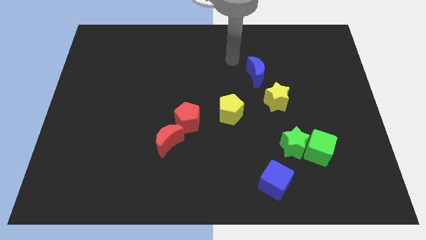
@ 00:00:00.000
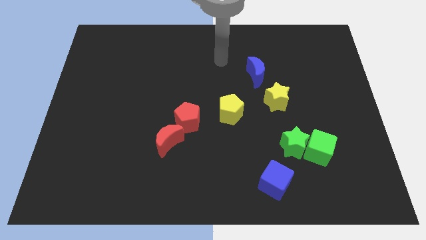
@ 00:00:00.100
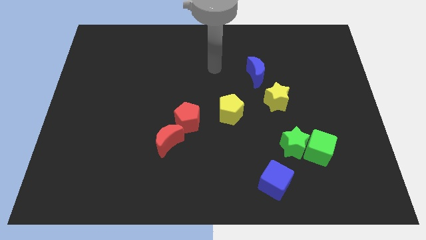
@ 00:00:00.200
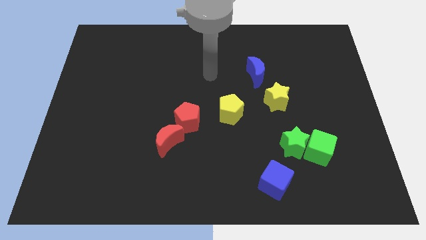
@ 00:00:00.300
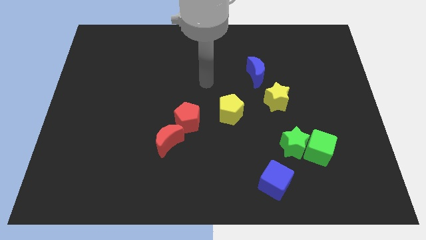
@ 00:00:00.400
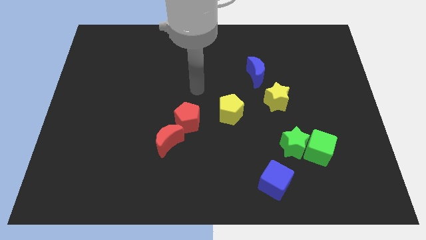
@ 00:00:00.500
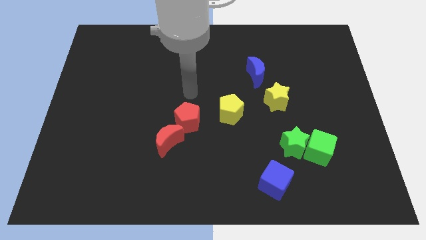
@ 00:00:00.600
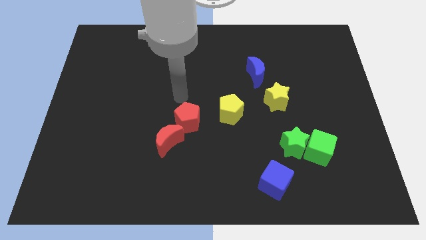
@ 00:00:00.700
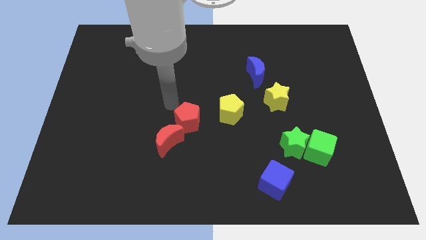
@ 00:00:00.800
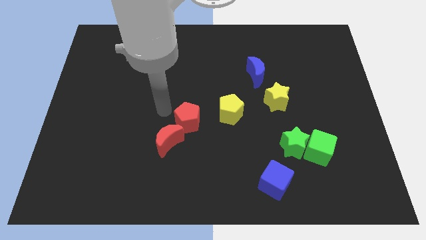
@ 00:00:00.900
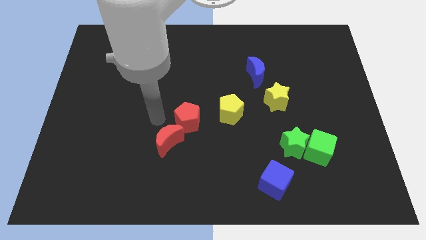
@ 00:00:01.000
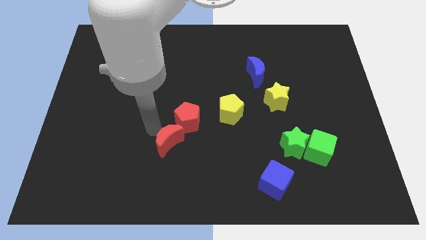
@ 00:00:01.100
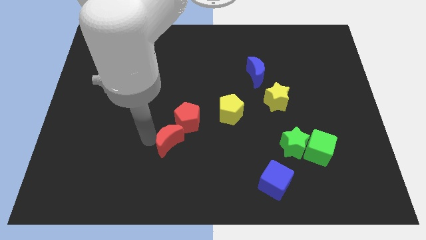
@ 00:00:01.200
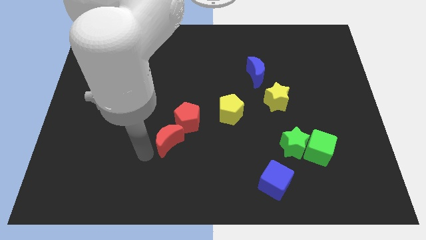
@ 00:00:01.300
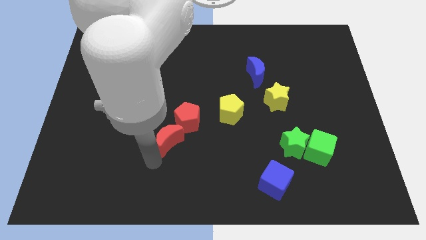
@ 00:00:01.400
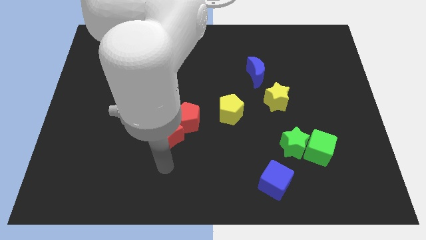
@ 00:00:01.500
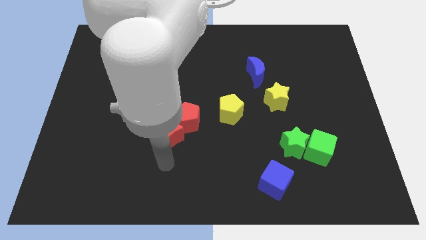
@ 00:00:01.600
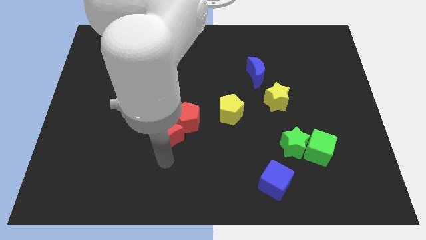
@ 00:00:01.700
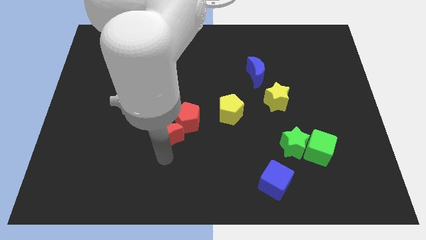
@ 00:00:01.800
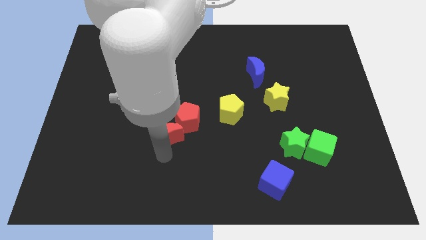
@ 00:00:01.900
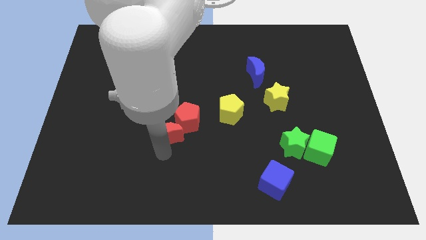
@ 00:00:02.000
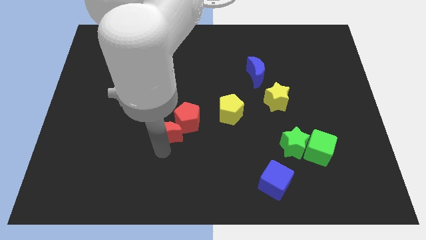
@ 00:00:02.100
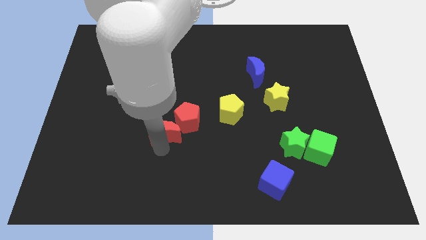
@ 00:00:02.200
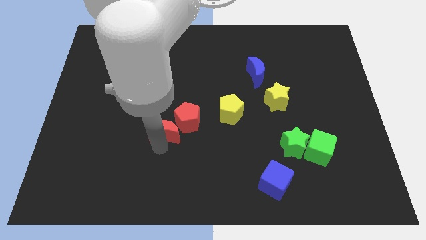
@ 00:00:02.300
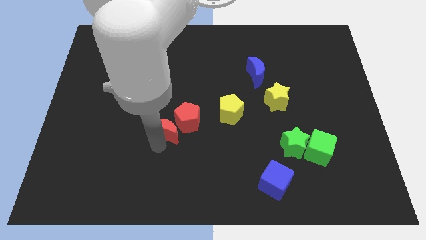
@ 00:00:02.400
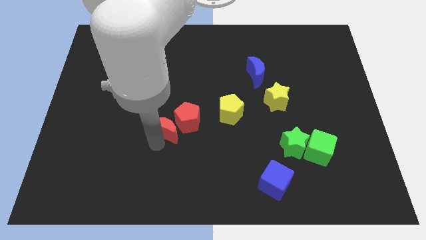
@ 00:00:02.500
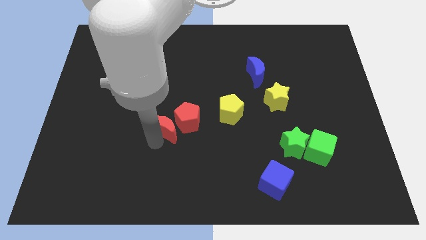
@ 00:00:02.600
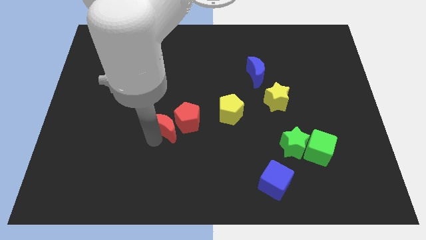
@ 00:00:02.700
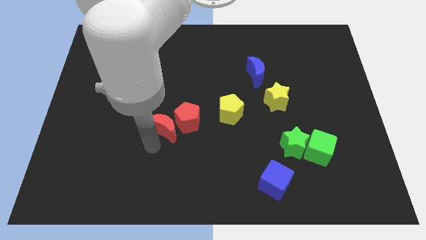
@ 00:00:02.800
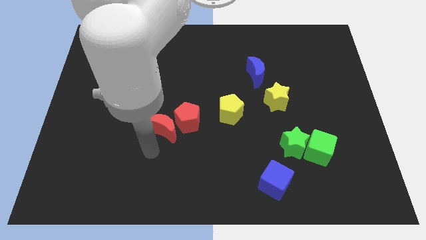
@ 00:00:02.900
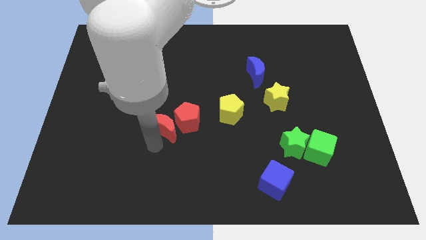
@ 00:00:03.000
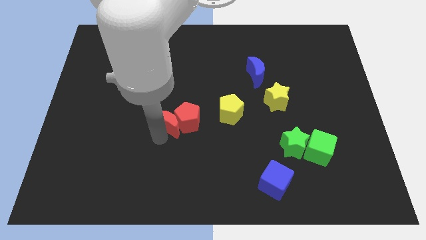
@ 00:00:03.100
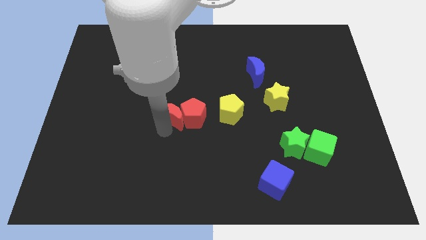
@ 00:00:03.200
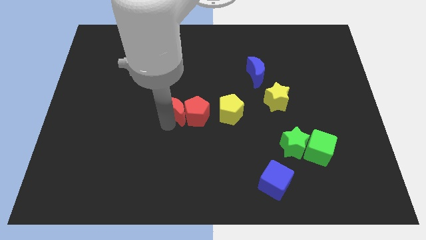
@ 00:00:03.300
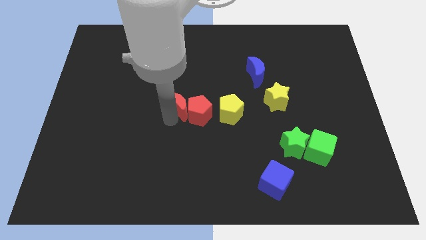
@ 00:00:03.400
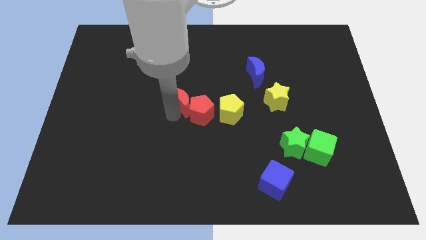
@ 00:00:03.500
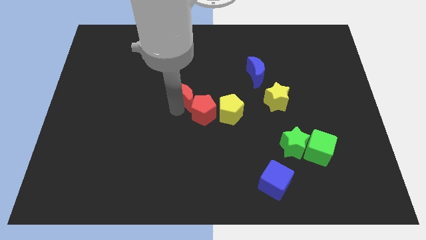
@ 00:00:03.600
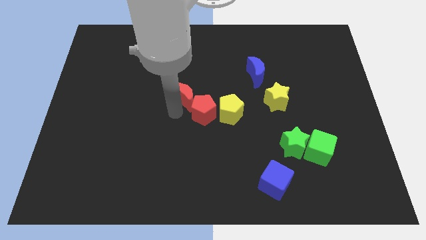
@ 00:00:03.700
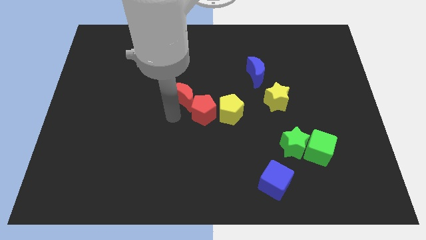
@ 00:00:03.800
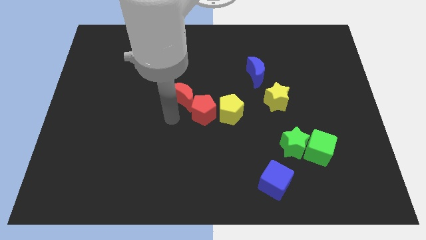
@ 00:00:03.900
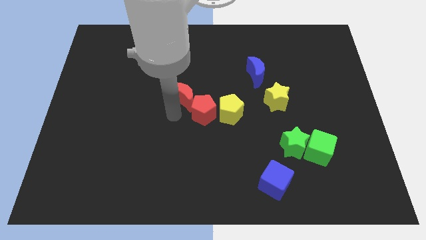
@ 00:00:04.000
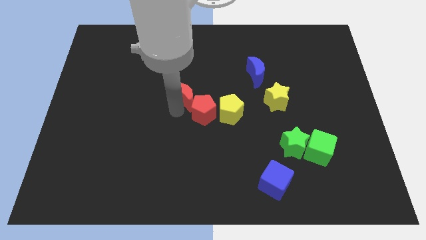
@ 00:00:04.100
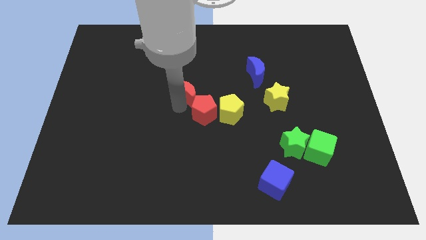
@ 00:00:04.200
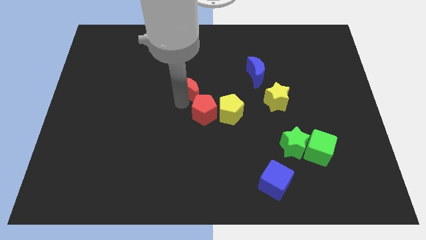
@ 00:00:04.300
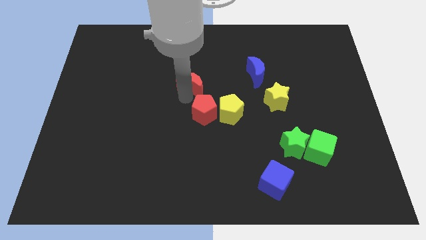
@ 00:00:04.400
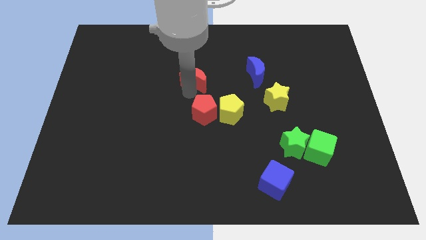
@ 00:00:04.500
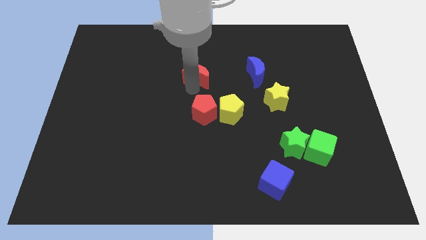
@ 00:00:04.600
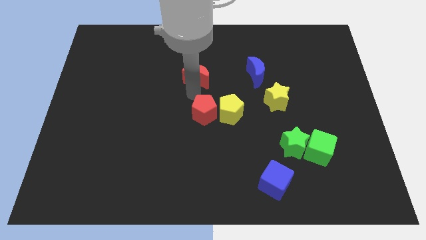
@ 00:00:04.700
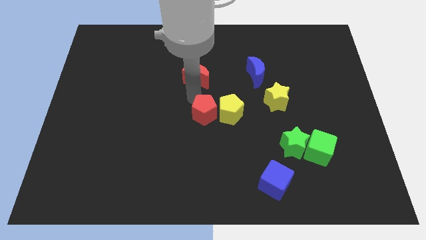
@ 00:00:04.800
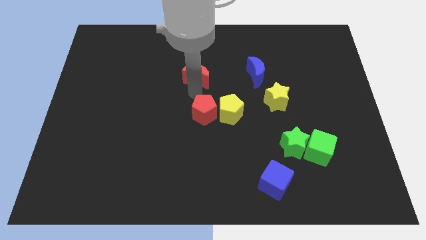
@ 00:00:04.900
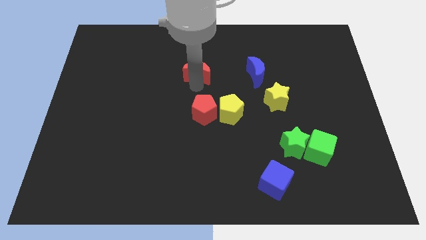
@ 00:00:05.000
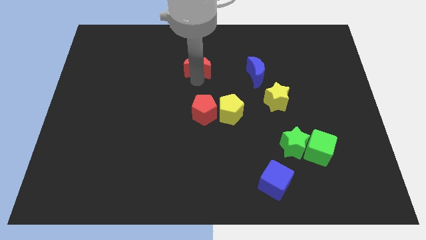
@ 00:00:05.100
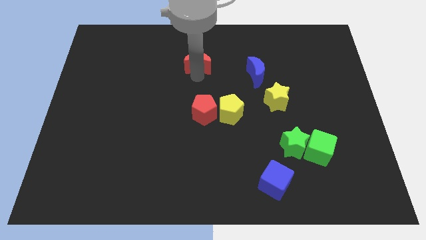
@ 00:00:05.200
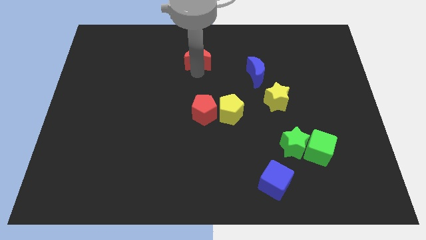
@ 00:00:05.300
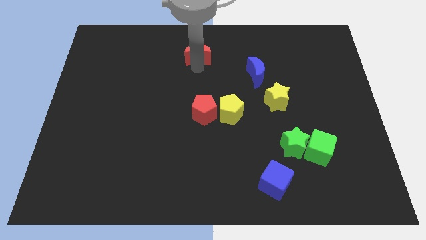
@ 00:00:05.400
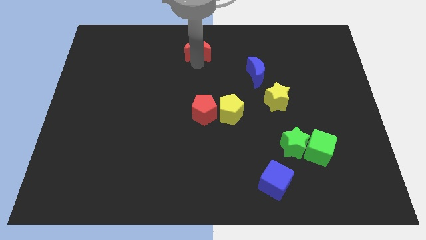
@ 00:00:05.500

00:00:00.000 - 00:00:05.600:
move the red moon to the top

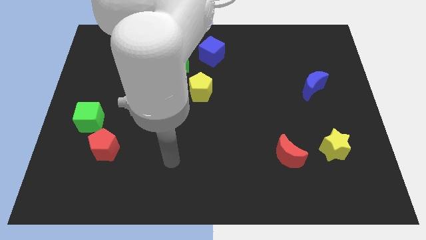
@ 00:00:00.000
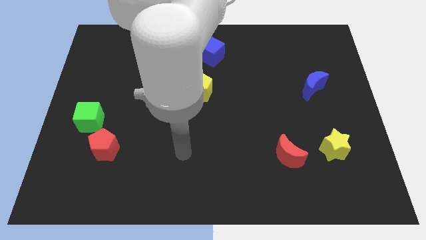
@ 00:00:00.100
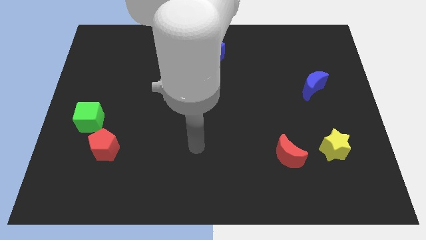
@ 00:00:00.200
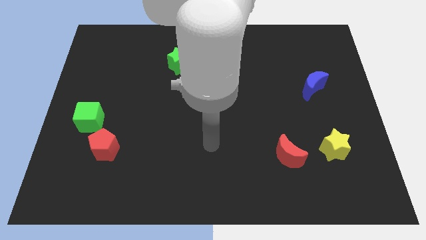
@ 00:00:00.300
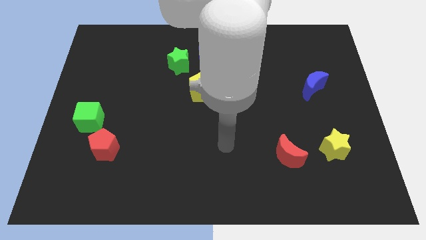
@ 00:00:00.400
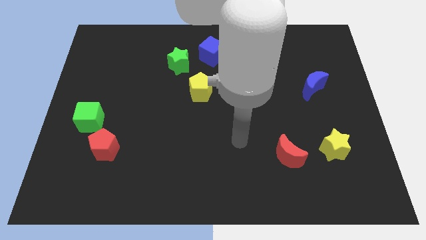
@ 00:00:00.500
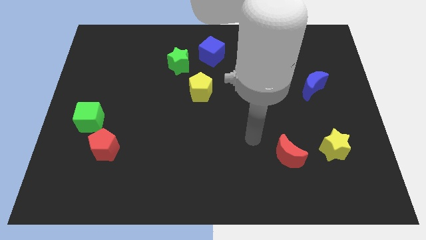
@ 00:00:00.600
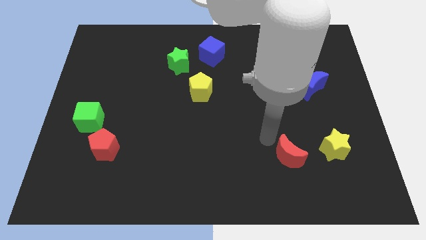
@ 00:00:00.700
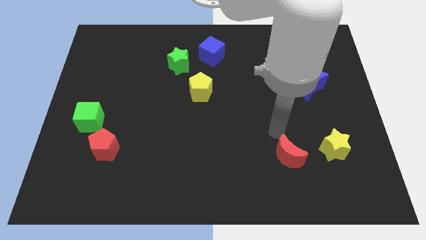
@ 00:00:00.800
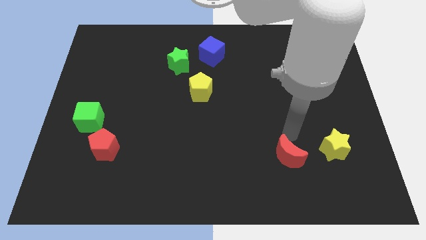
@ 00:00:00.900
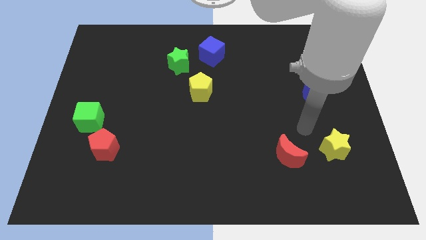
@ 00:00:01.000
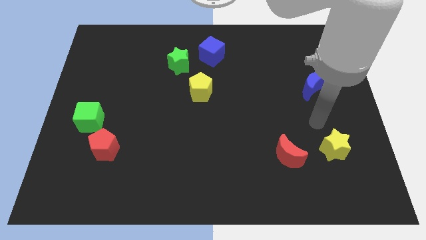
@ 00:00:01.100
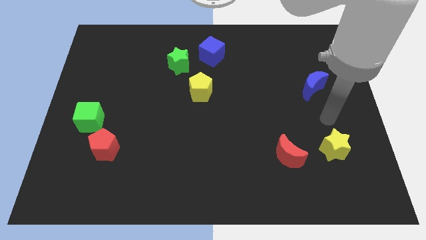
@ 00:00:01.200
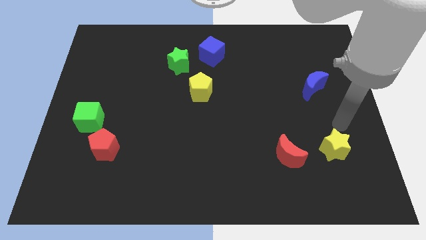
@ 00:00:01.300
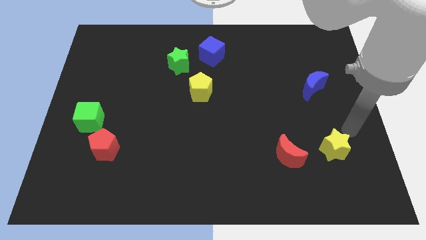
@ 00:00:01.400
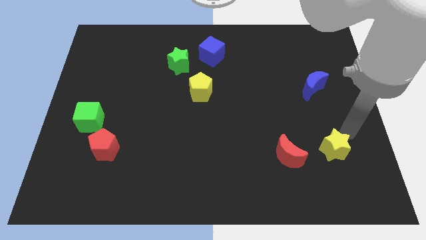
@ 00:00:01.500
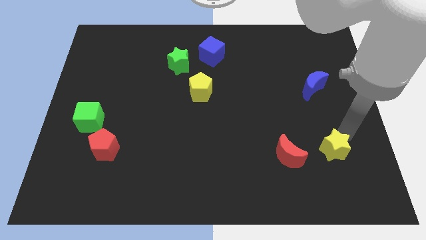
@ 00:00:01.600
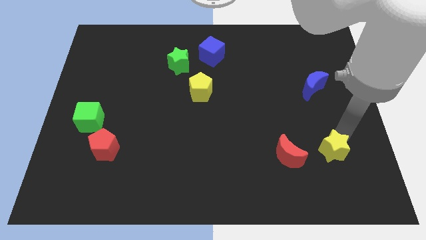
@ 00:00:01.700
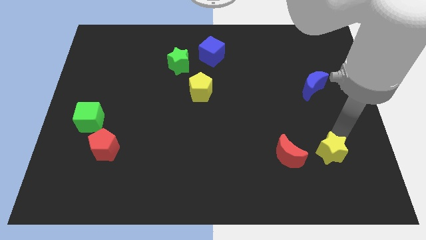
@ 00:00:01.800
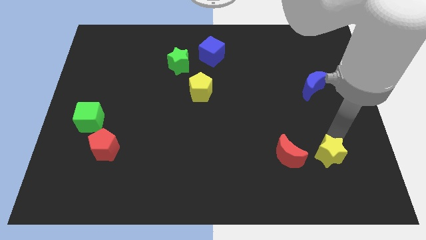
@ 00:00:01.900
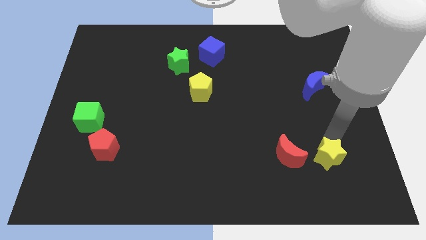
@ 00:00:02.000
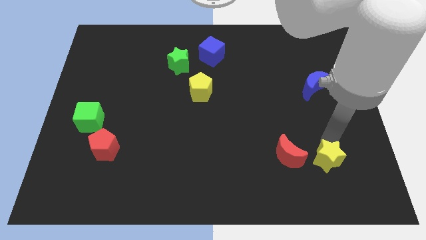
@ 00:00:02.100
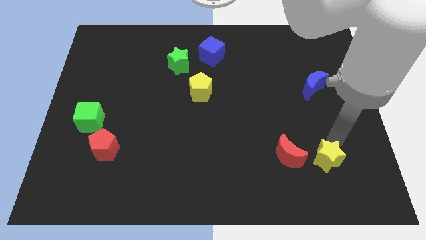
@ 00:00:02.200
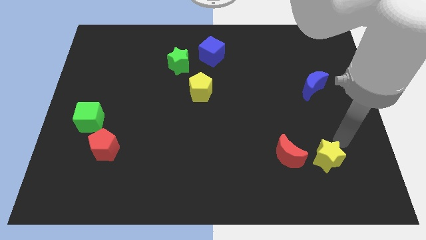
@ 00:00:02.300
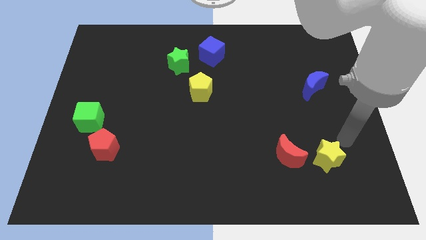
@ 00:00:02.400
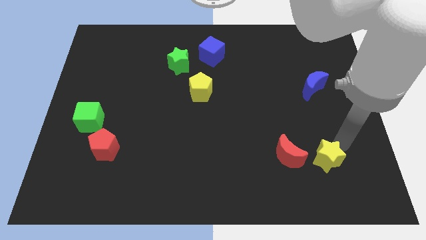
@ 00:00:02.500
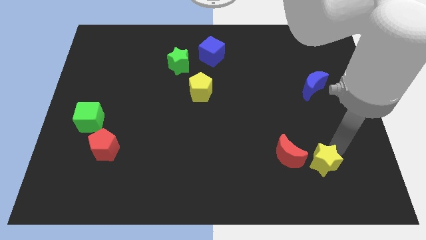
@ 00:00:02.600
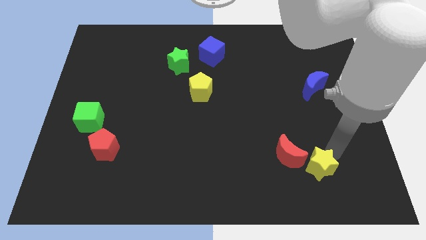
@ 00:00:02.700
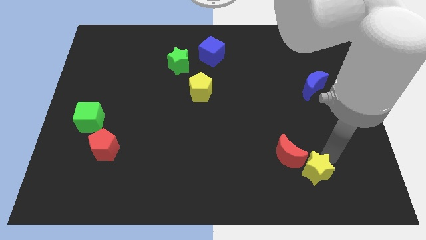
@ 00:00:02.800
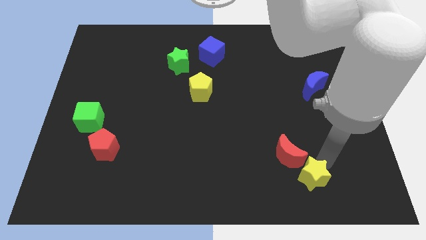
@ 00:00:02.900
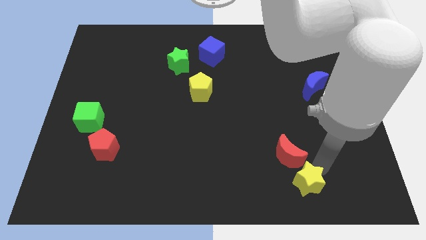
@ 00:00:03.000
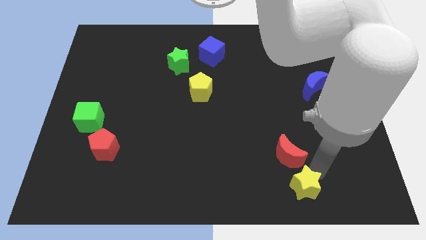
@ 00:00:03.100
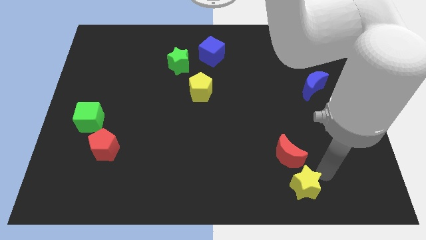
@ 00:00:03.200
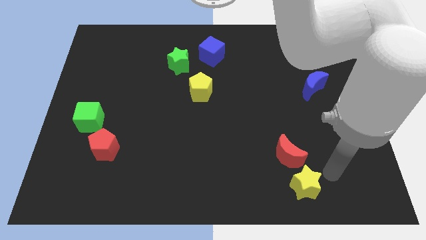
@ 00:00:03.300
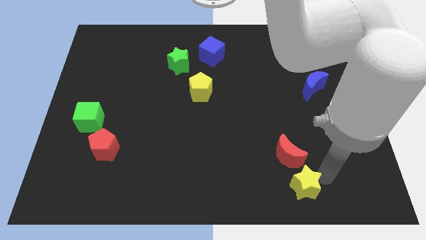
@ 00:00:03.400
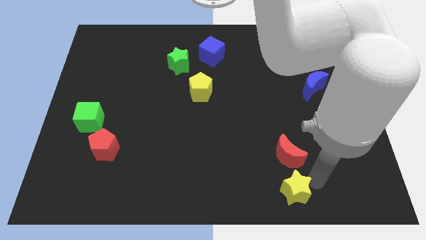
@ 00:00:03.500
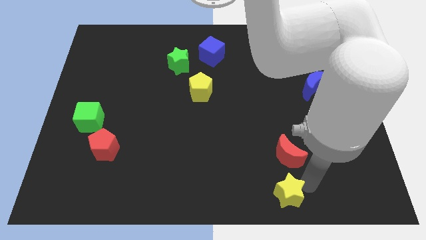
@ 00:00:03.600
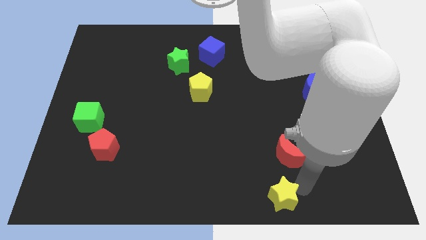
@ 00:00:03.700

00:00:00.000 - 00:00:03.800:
slide the yellow star to the bottom side
